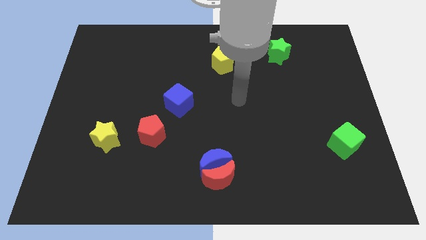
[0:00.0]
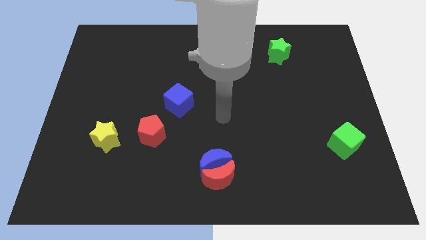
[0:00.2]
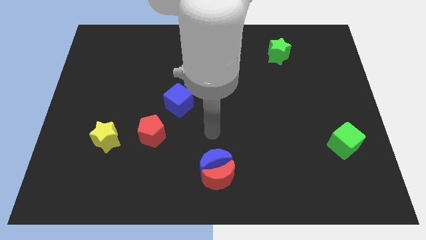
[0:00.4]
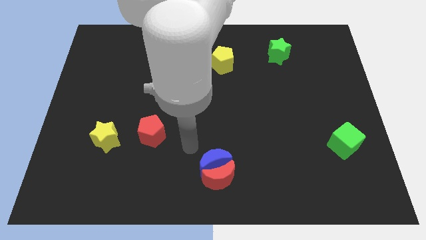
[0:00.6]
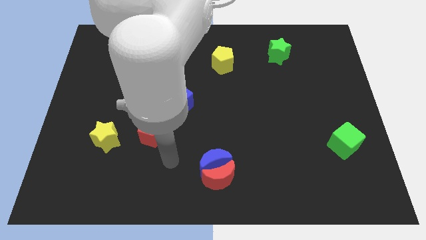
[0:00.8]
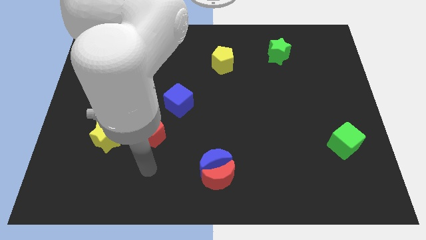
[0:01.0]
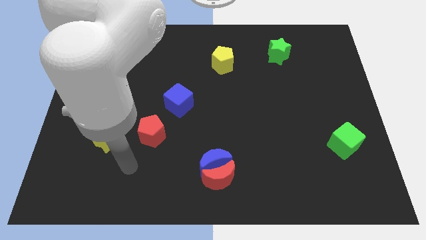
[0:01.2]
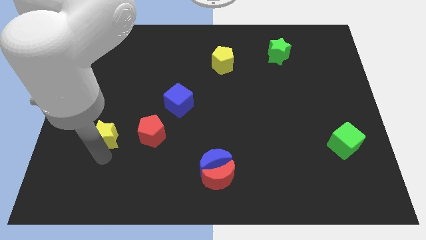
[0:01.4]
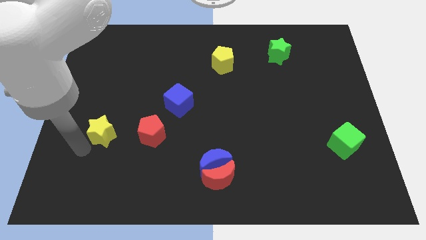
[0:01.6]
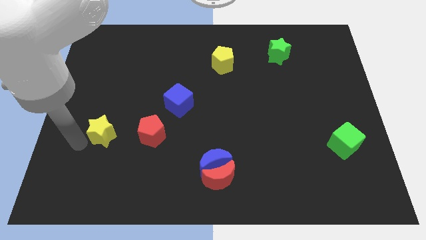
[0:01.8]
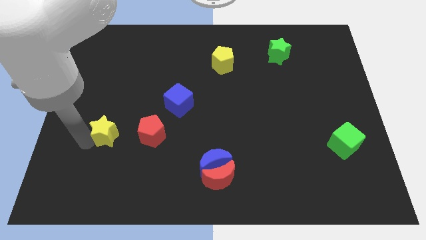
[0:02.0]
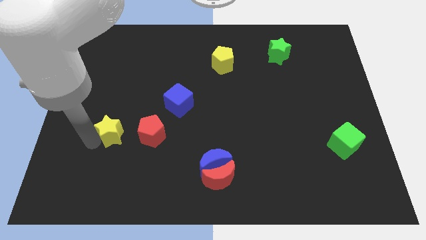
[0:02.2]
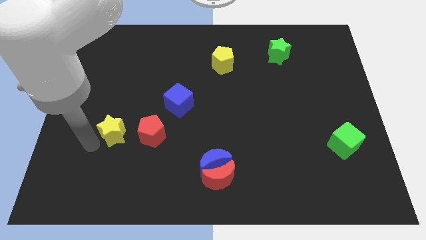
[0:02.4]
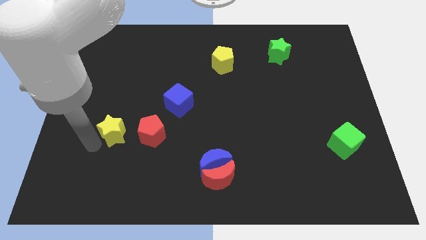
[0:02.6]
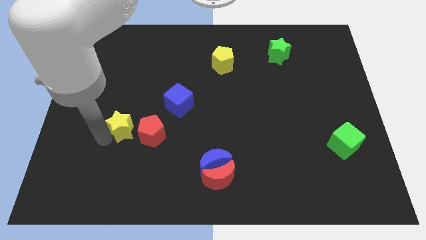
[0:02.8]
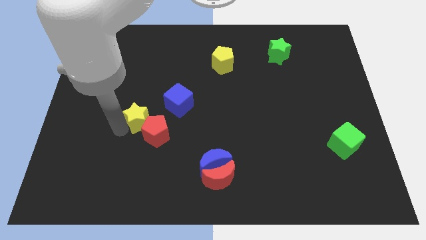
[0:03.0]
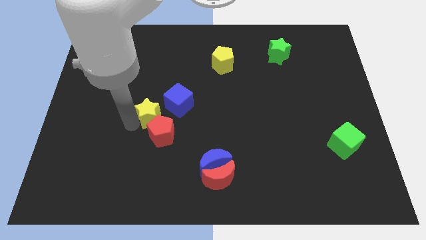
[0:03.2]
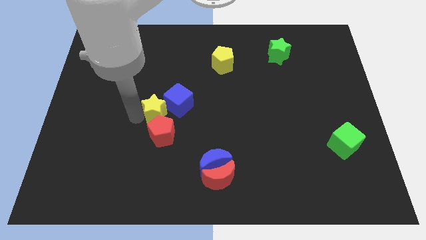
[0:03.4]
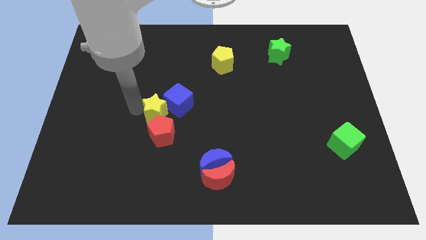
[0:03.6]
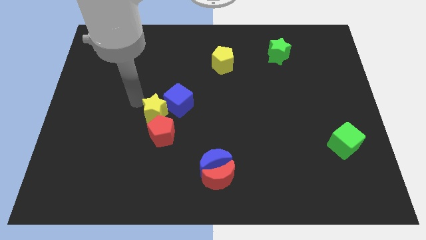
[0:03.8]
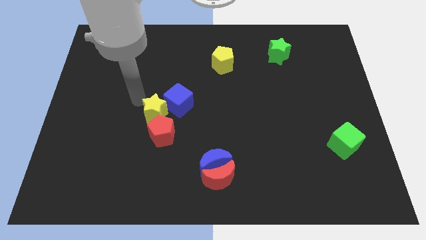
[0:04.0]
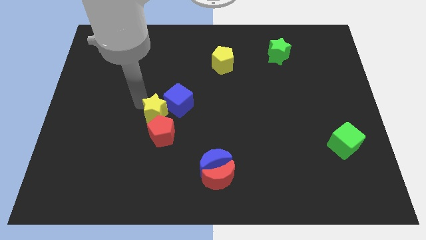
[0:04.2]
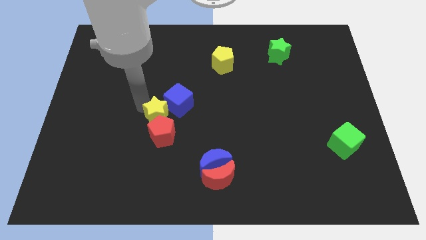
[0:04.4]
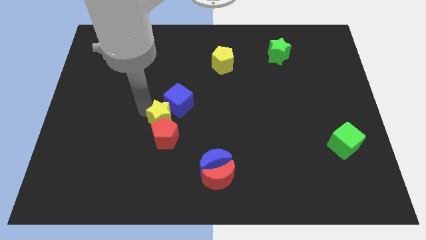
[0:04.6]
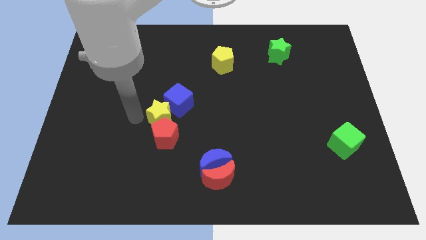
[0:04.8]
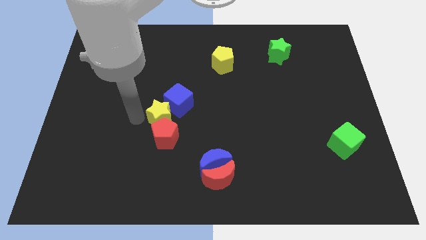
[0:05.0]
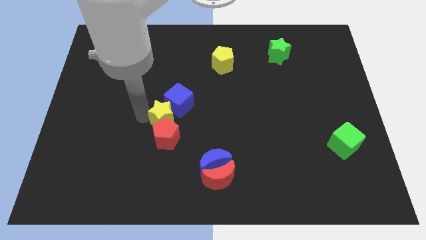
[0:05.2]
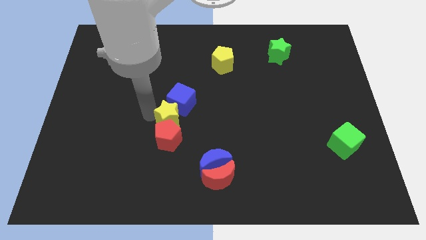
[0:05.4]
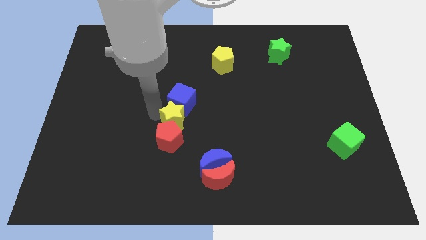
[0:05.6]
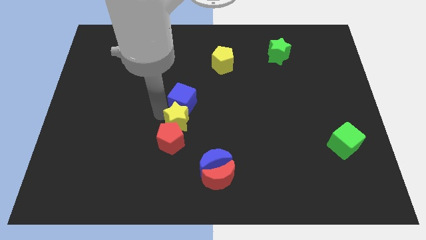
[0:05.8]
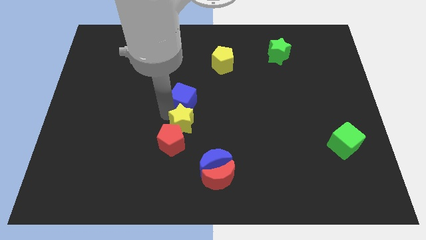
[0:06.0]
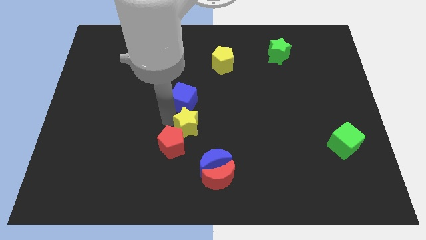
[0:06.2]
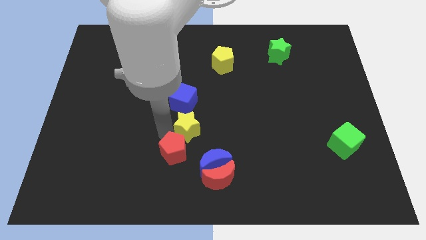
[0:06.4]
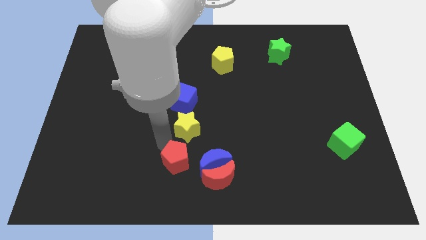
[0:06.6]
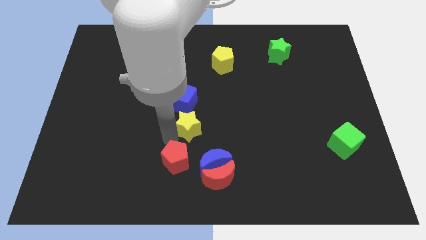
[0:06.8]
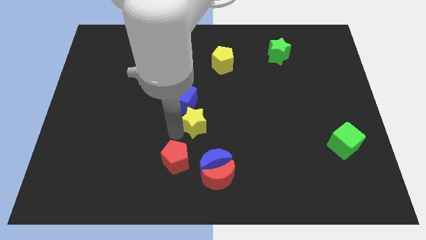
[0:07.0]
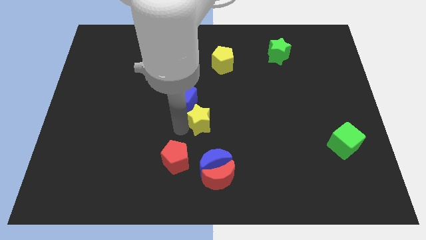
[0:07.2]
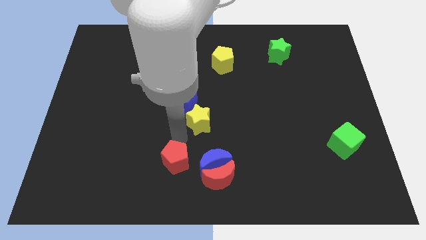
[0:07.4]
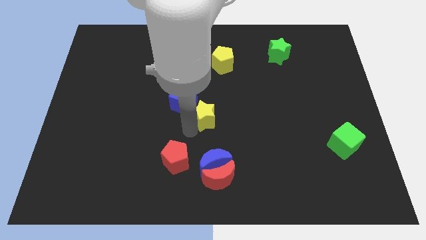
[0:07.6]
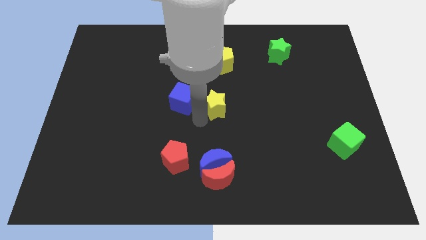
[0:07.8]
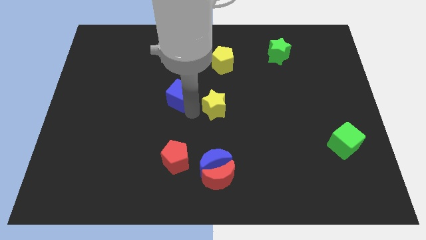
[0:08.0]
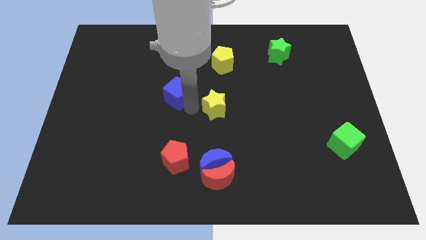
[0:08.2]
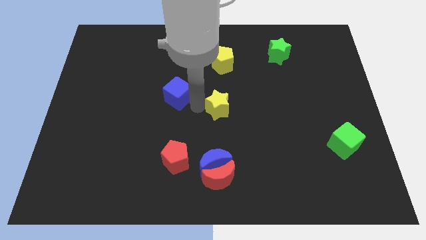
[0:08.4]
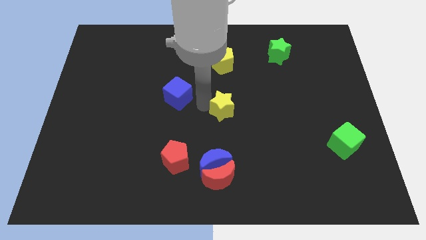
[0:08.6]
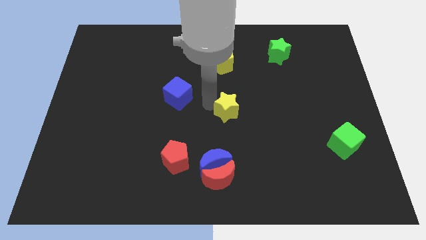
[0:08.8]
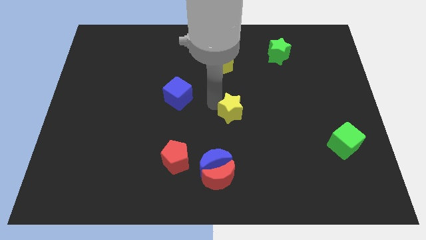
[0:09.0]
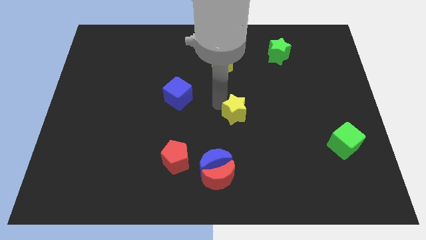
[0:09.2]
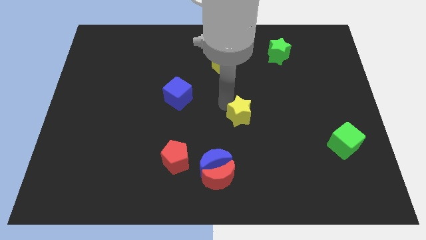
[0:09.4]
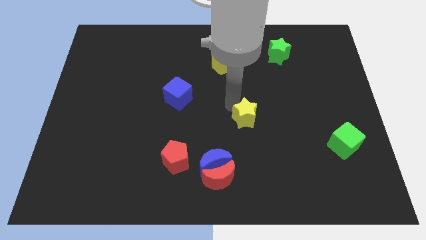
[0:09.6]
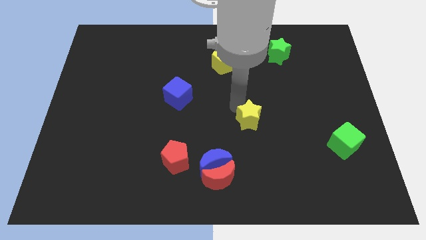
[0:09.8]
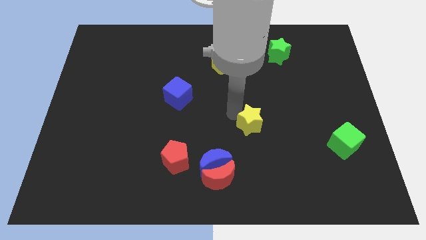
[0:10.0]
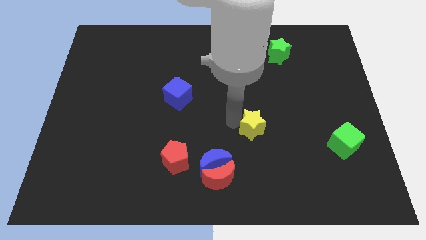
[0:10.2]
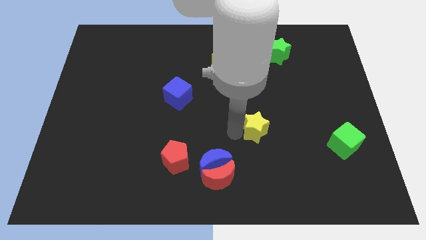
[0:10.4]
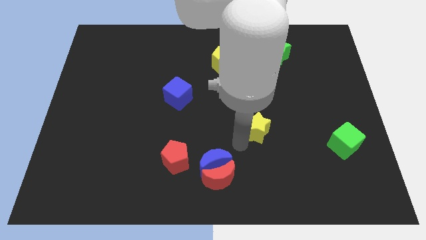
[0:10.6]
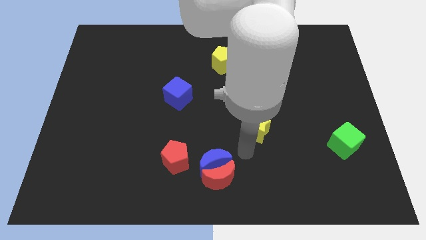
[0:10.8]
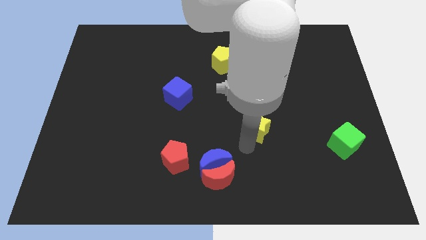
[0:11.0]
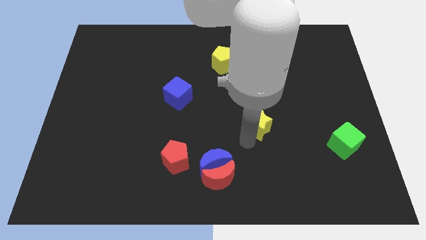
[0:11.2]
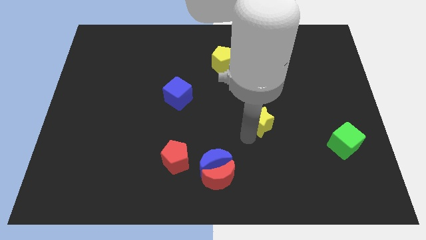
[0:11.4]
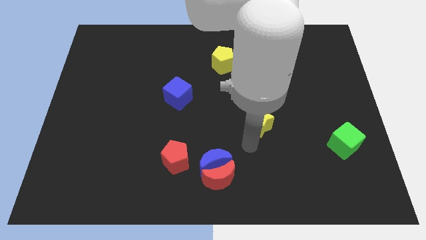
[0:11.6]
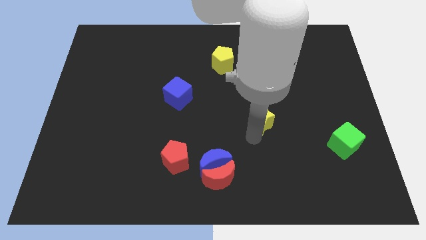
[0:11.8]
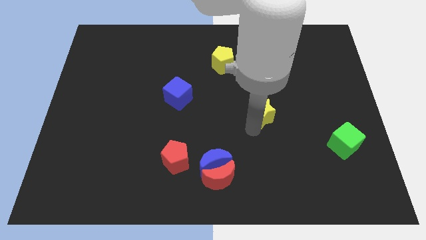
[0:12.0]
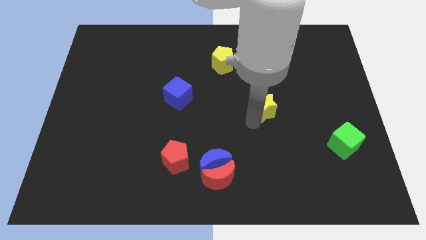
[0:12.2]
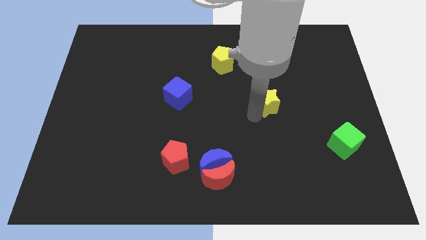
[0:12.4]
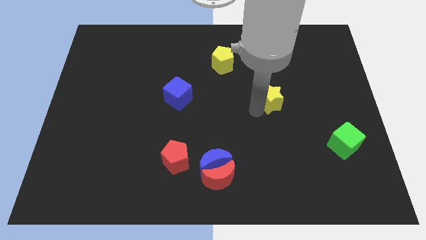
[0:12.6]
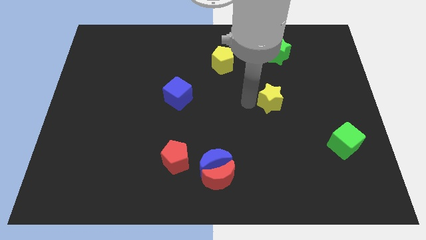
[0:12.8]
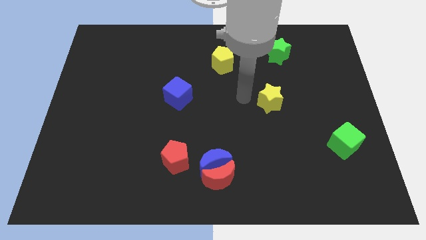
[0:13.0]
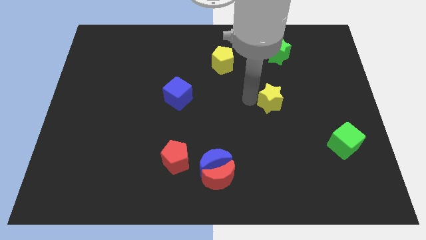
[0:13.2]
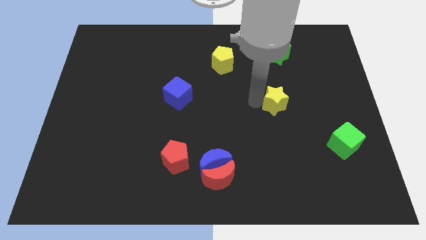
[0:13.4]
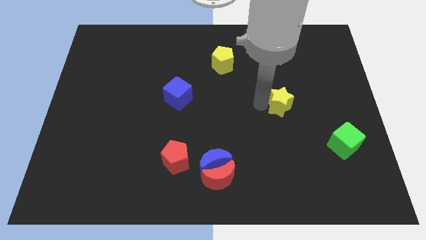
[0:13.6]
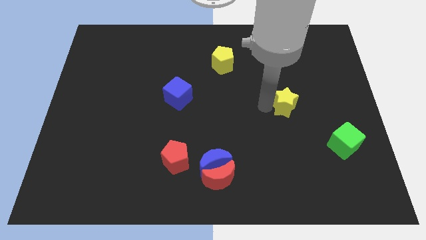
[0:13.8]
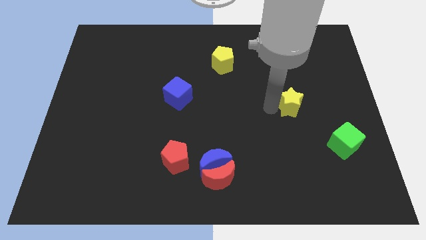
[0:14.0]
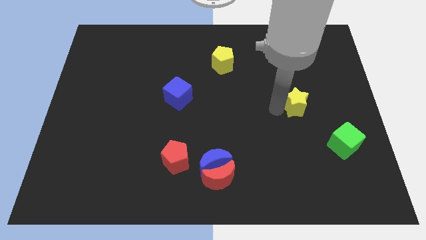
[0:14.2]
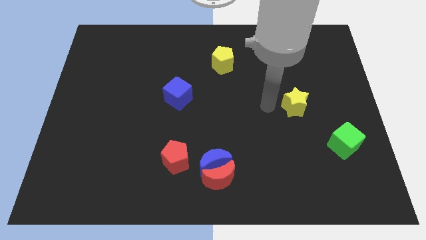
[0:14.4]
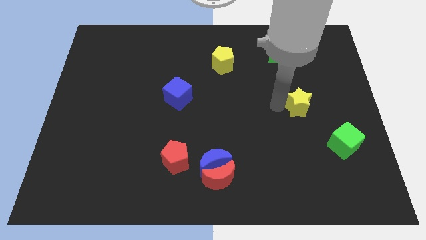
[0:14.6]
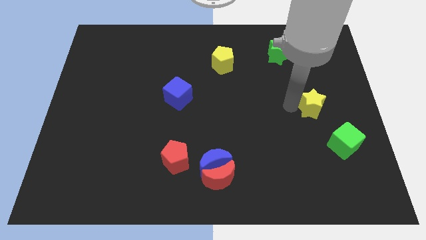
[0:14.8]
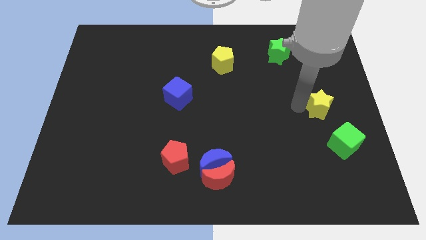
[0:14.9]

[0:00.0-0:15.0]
slide the yellow star above the green cube
